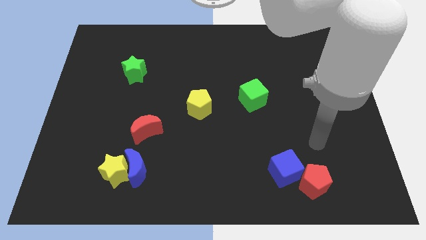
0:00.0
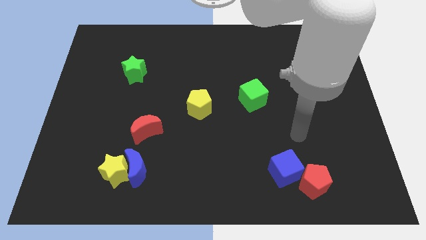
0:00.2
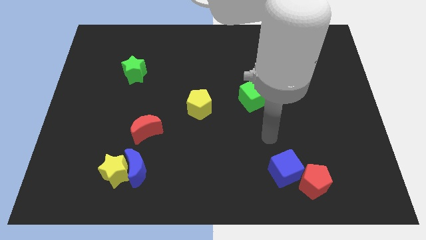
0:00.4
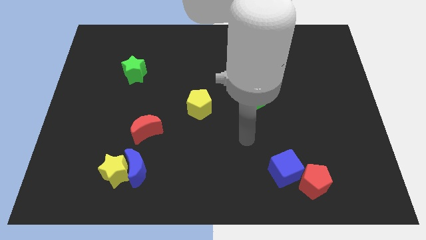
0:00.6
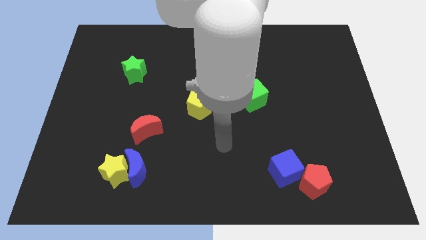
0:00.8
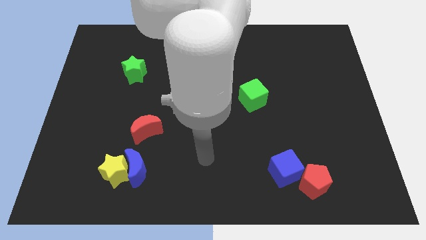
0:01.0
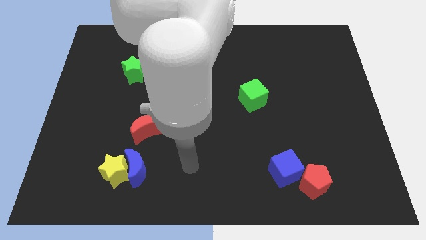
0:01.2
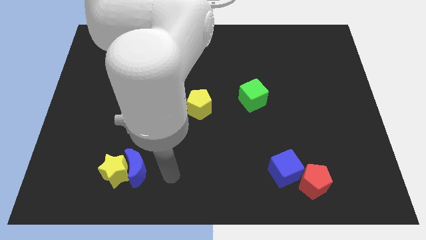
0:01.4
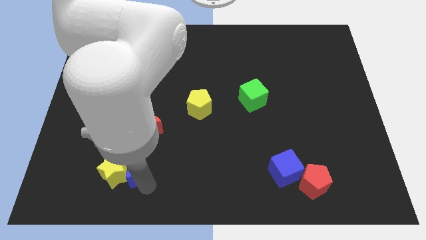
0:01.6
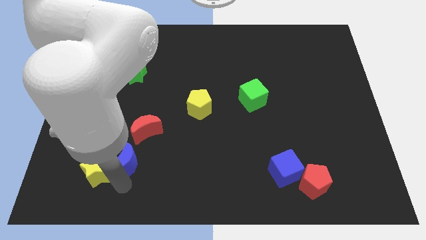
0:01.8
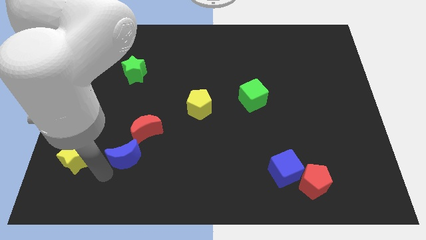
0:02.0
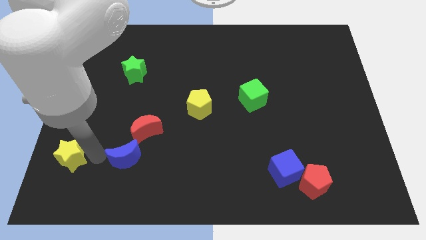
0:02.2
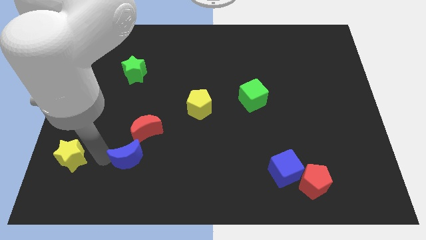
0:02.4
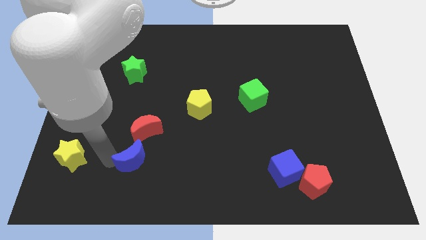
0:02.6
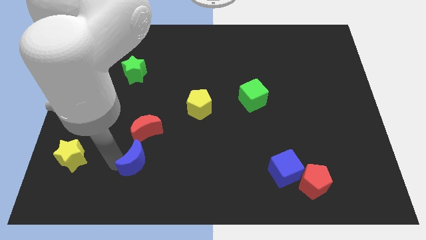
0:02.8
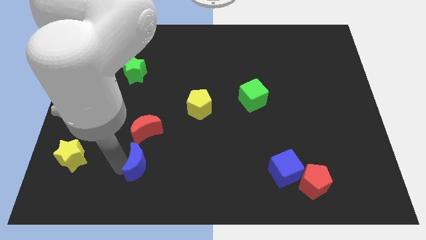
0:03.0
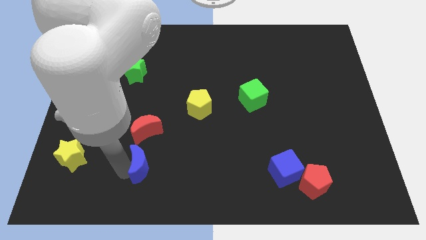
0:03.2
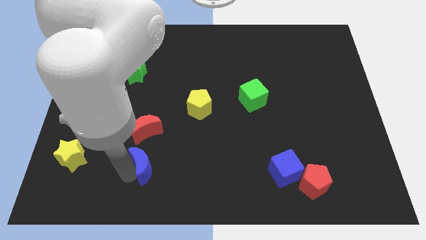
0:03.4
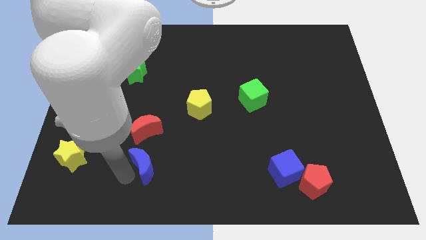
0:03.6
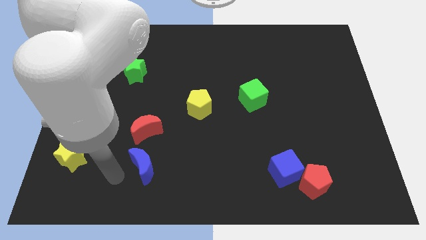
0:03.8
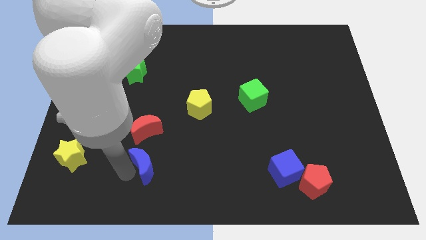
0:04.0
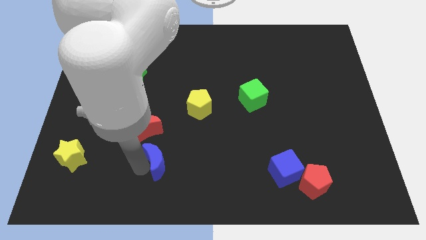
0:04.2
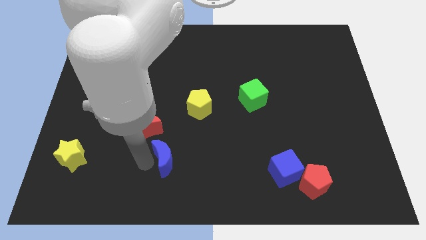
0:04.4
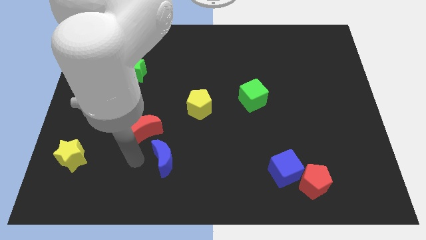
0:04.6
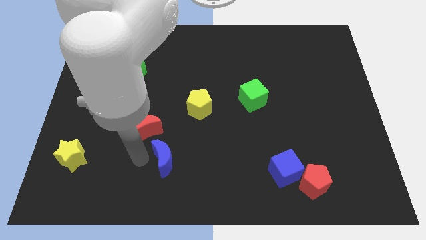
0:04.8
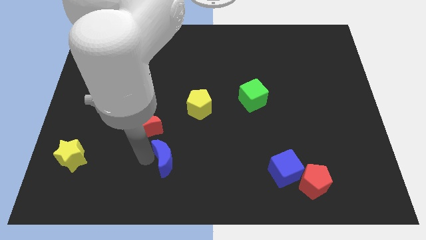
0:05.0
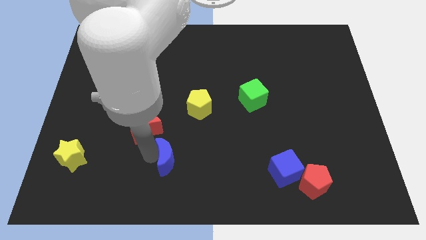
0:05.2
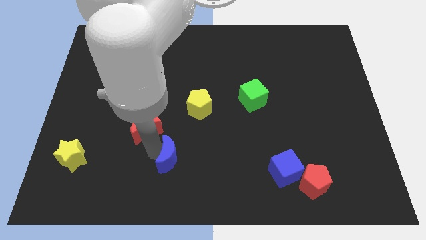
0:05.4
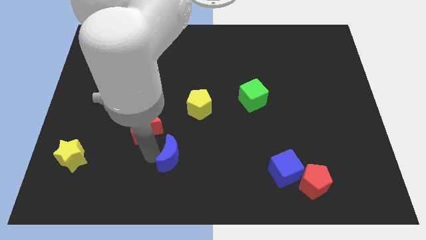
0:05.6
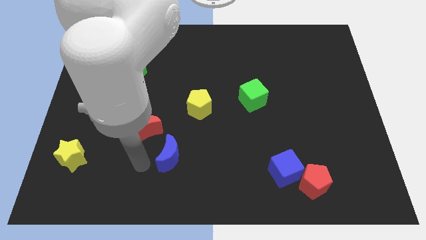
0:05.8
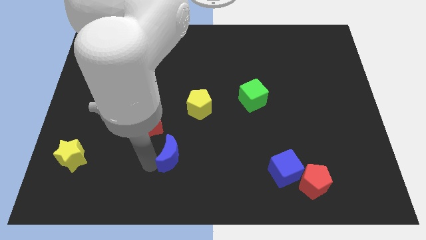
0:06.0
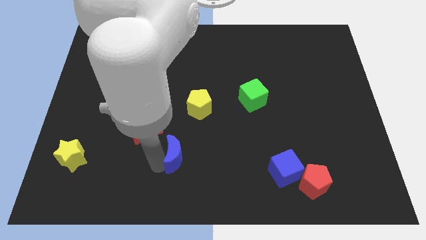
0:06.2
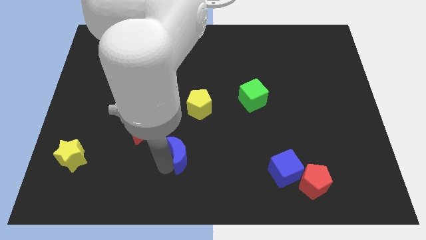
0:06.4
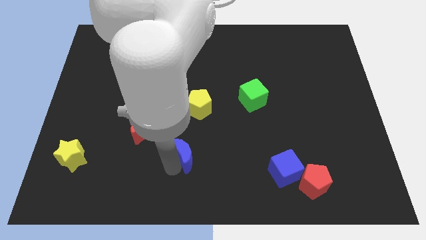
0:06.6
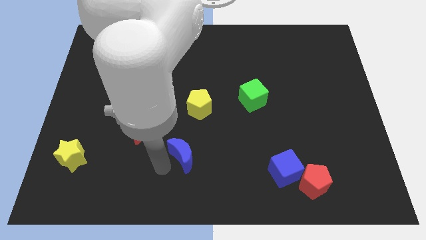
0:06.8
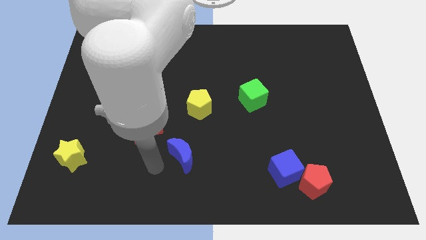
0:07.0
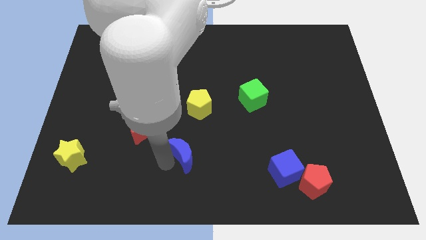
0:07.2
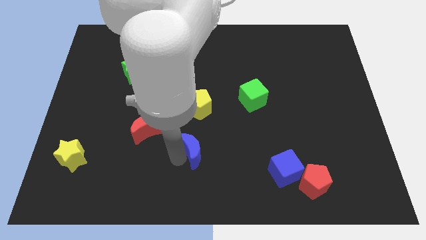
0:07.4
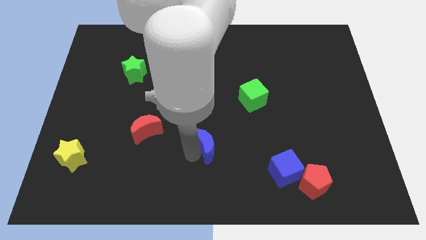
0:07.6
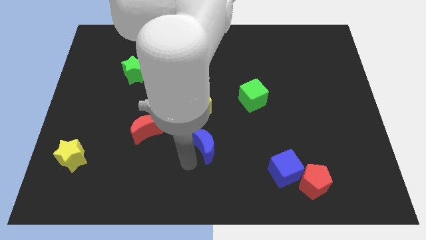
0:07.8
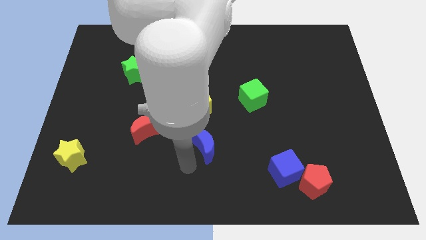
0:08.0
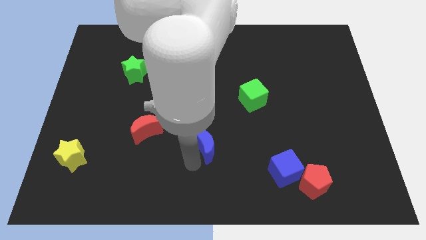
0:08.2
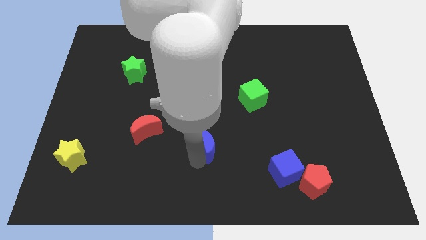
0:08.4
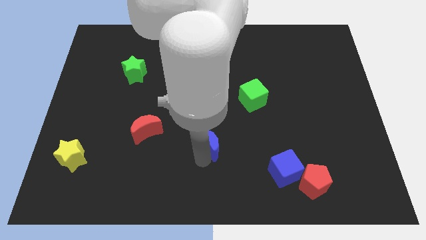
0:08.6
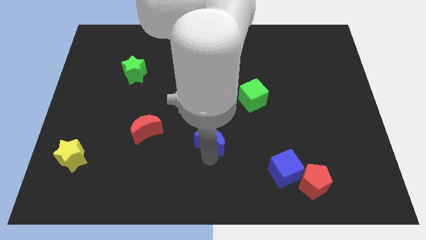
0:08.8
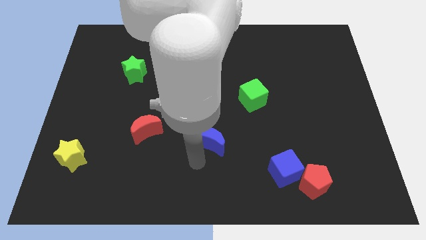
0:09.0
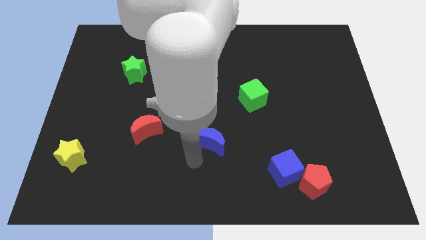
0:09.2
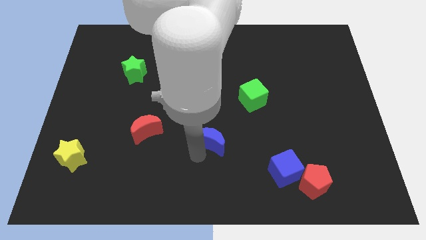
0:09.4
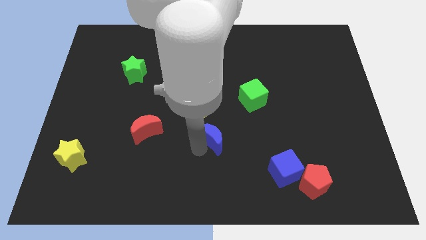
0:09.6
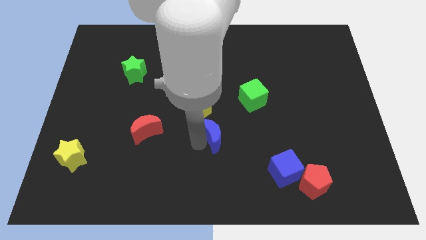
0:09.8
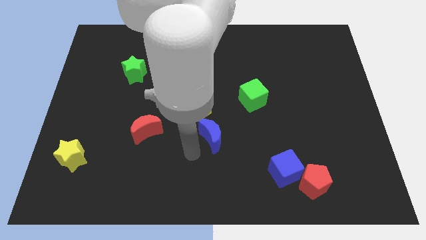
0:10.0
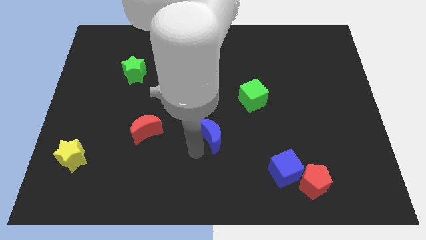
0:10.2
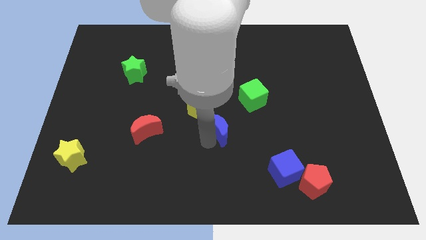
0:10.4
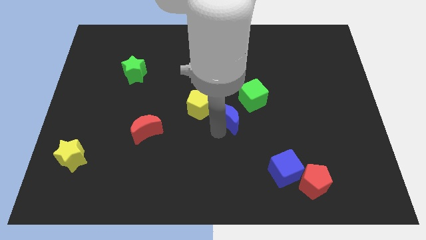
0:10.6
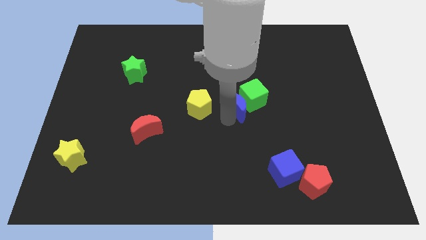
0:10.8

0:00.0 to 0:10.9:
move the blue moon to the green cube

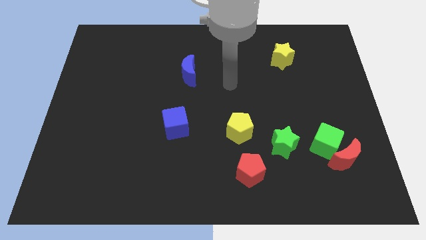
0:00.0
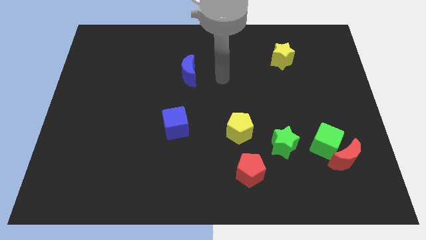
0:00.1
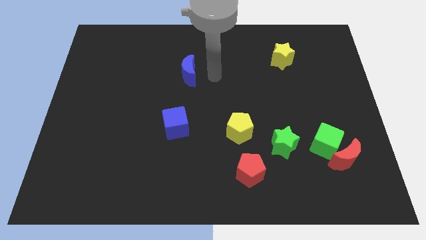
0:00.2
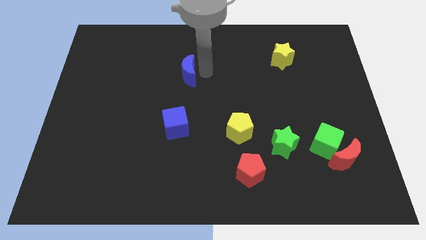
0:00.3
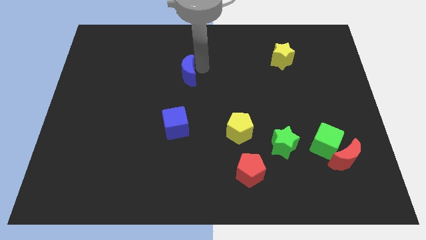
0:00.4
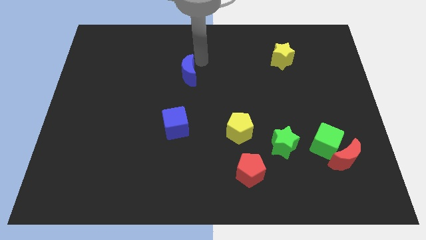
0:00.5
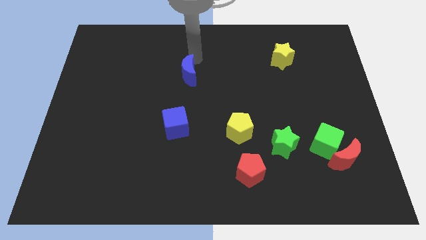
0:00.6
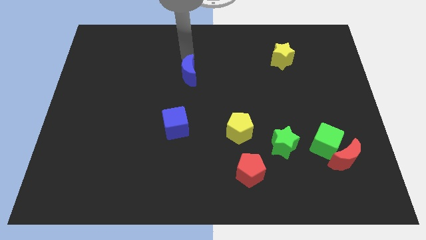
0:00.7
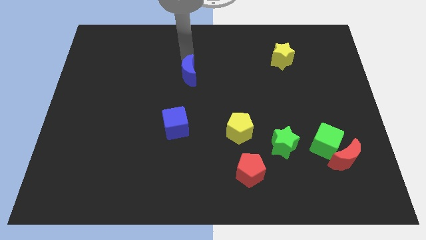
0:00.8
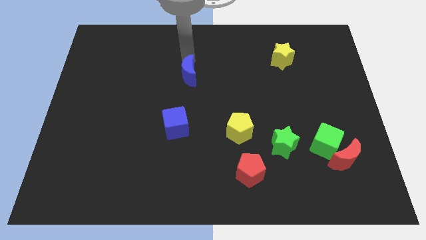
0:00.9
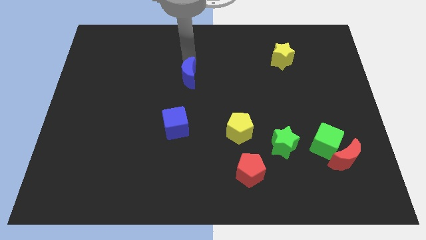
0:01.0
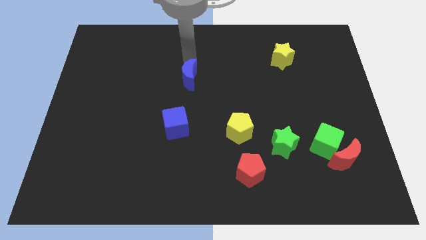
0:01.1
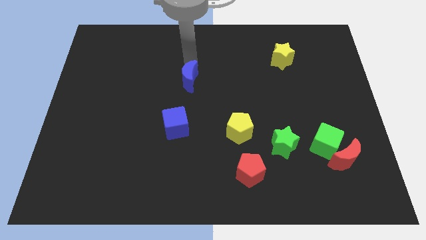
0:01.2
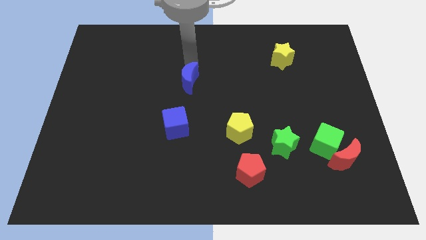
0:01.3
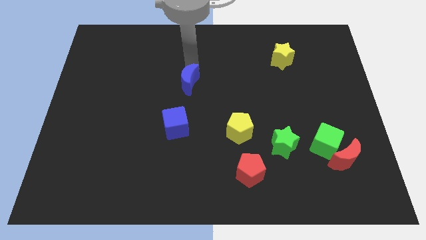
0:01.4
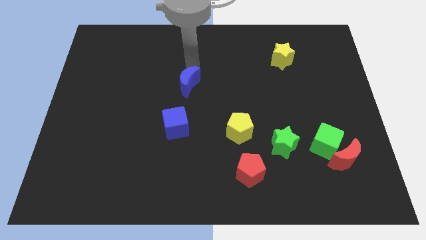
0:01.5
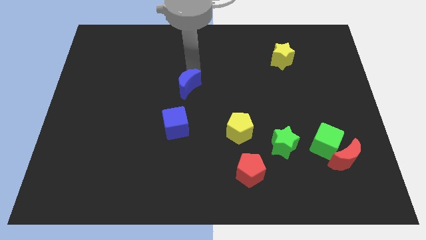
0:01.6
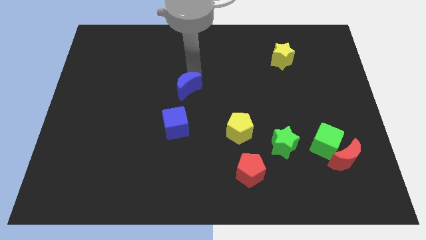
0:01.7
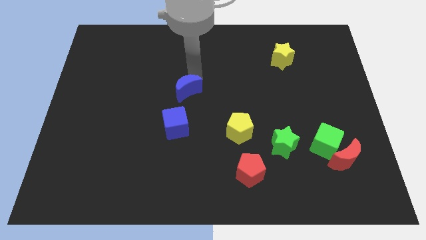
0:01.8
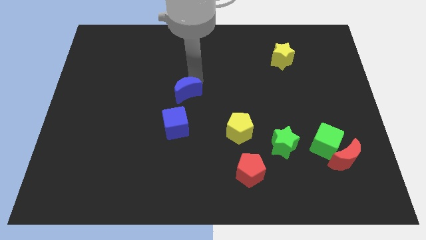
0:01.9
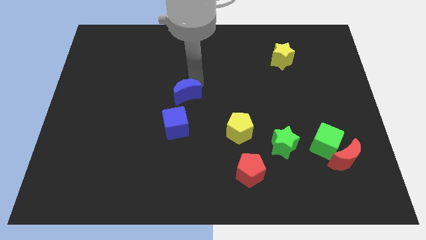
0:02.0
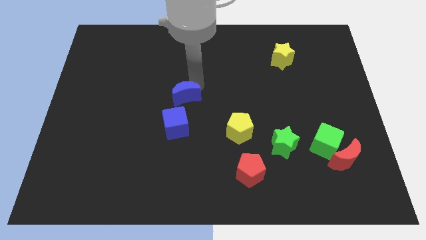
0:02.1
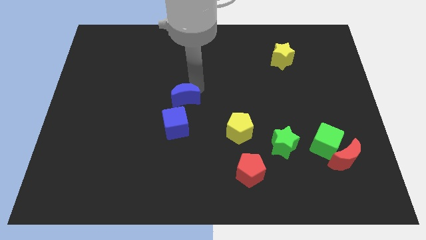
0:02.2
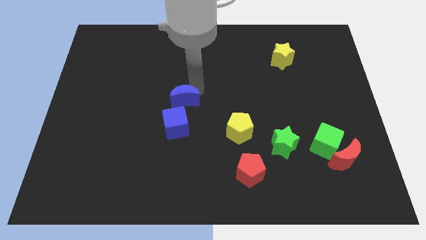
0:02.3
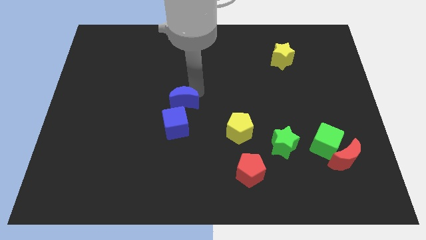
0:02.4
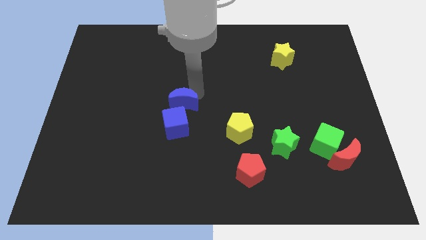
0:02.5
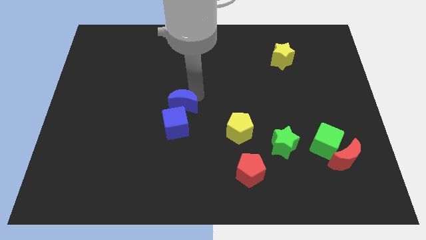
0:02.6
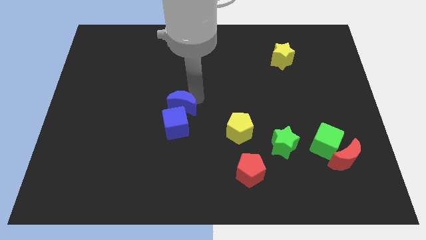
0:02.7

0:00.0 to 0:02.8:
push the blue moon towards the blue cube
